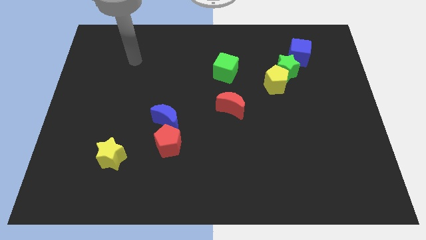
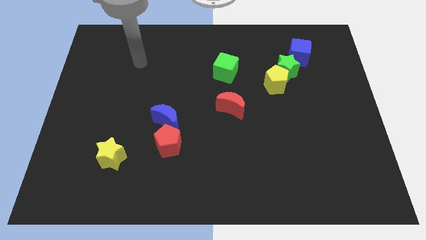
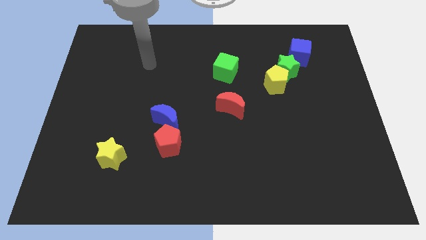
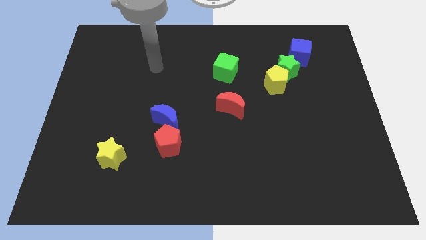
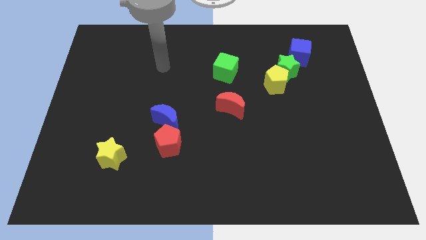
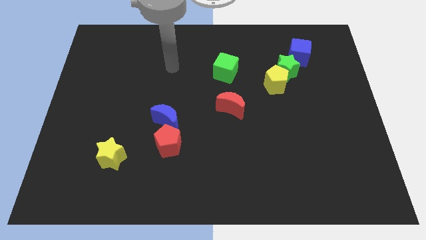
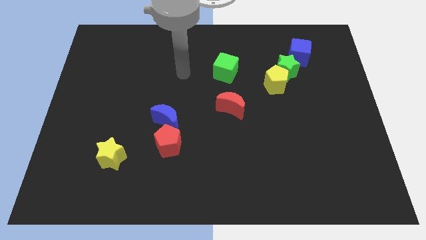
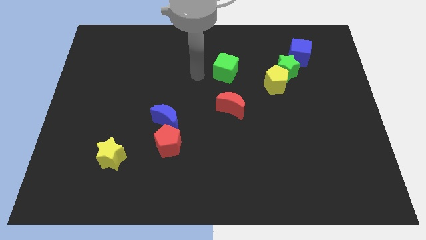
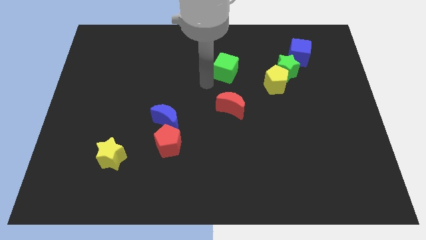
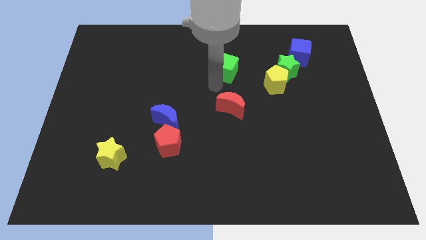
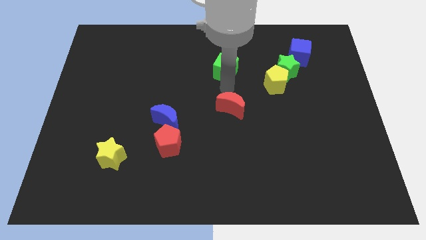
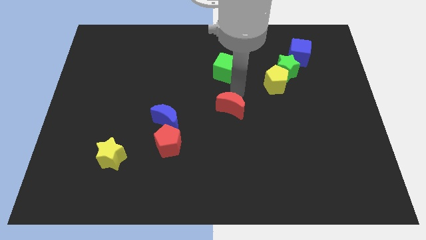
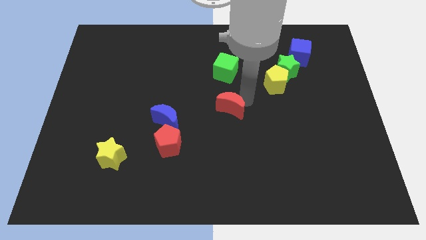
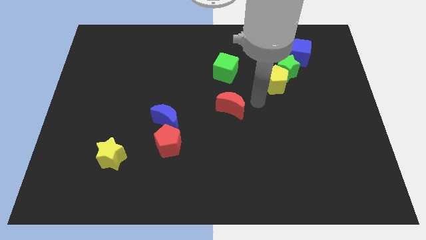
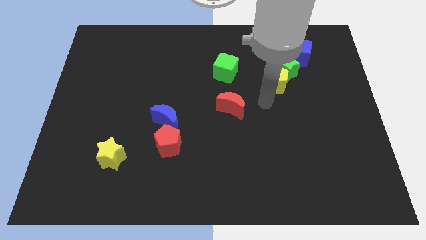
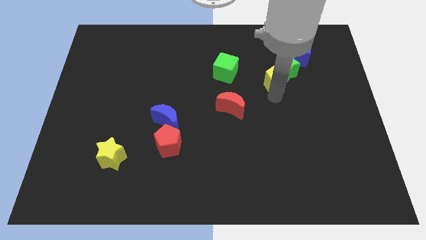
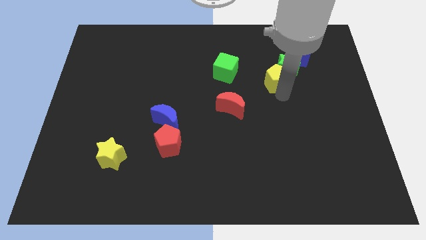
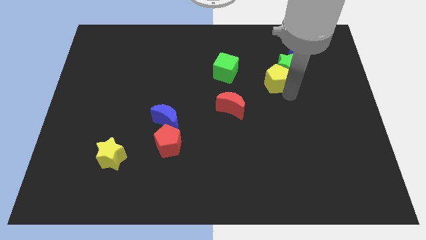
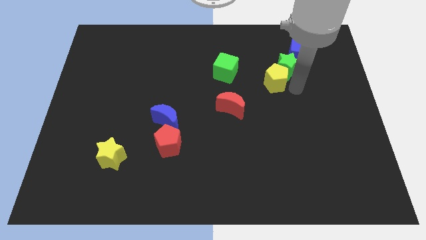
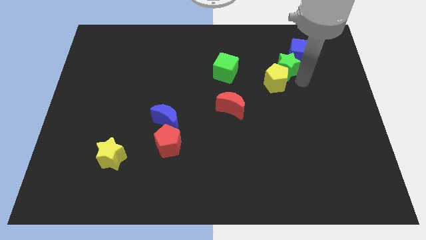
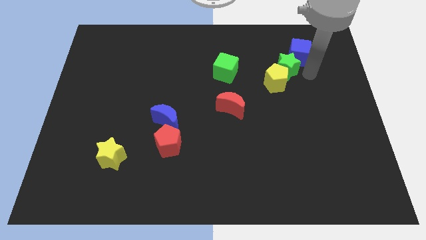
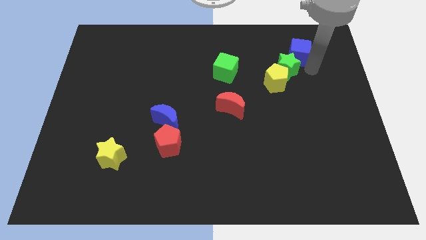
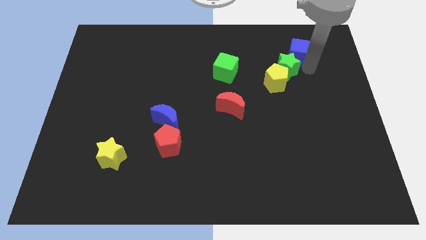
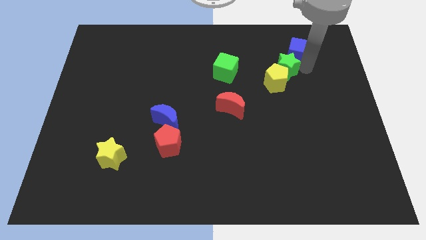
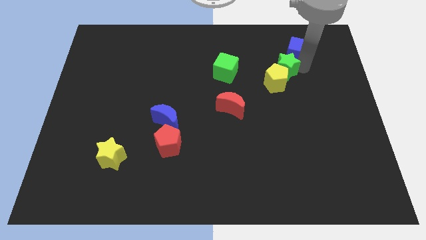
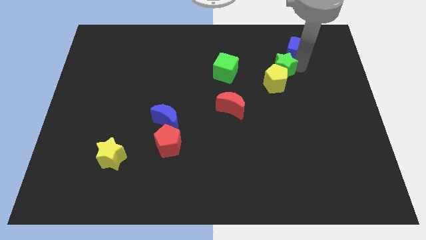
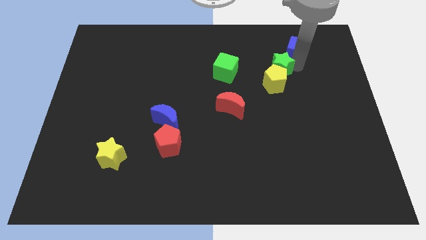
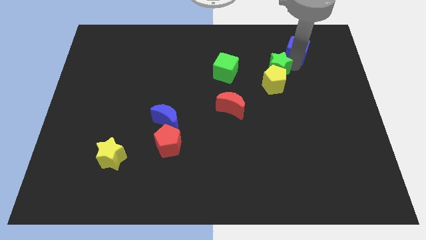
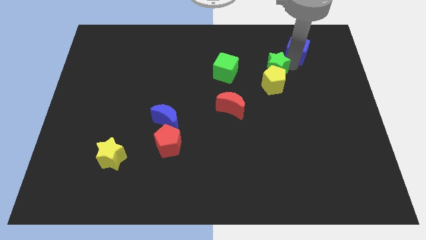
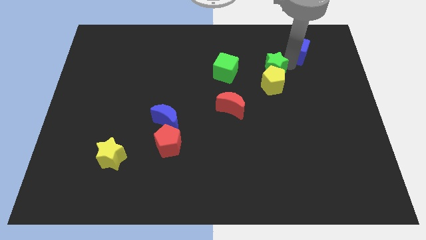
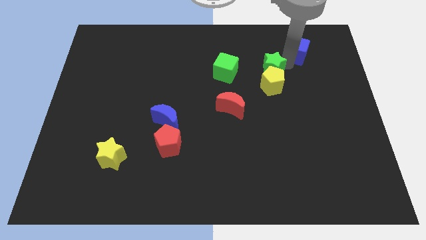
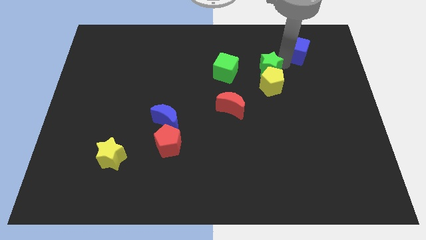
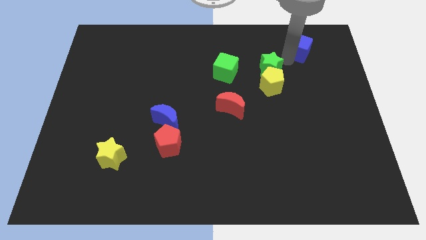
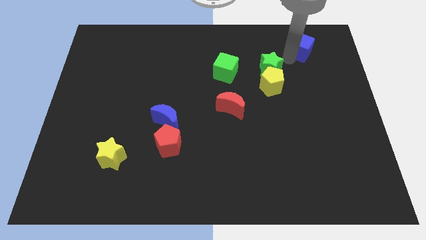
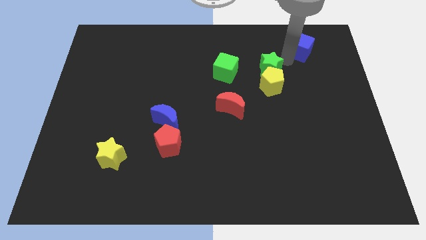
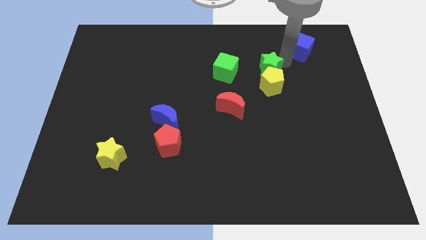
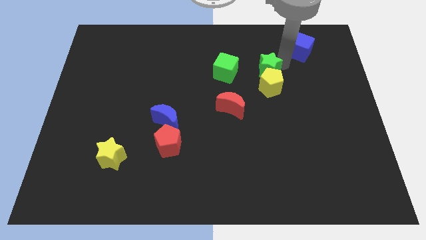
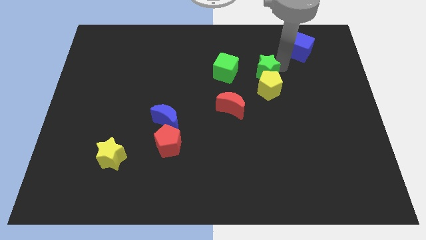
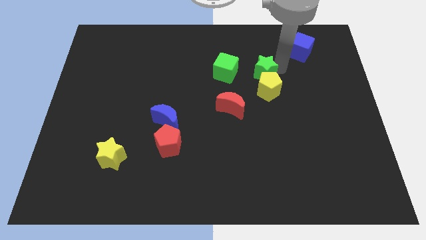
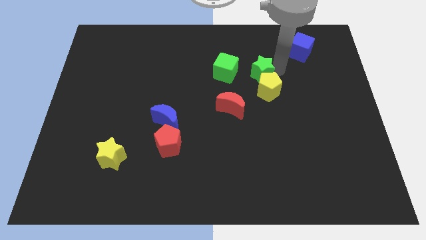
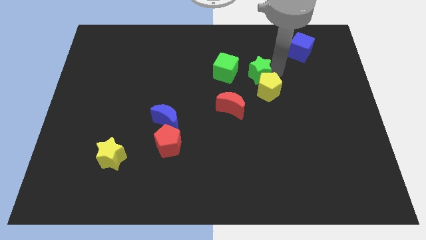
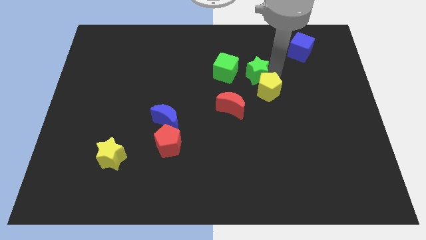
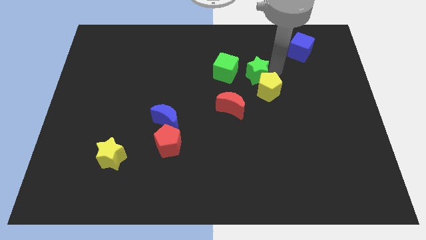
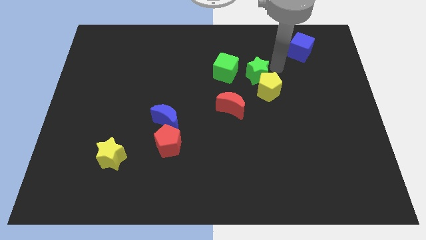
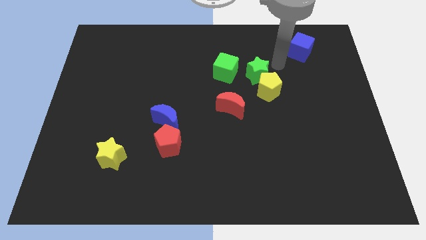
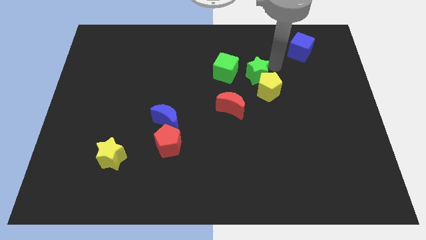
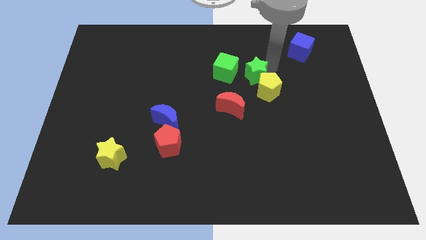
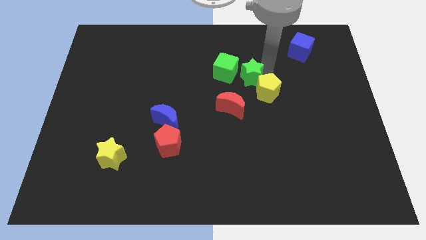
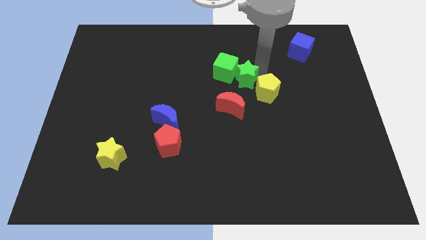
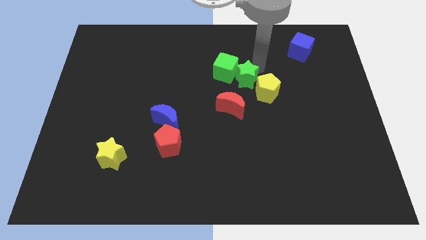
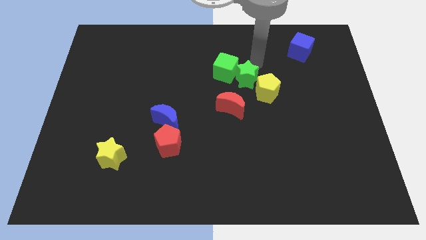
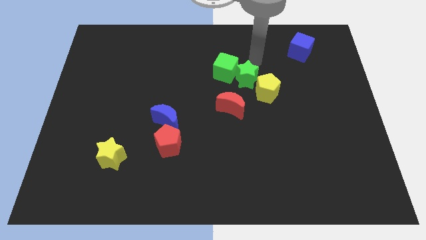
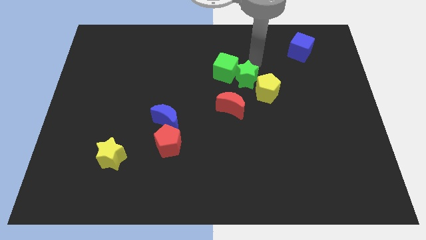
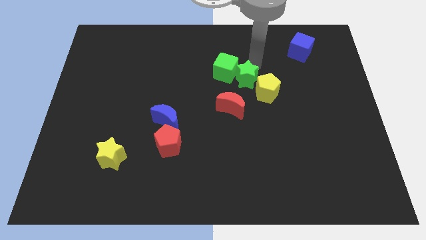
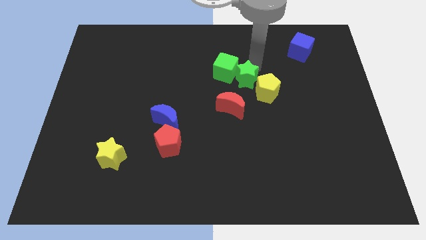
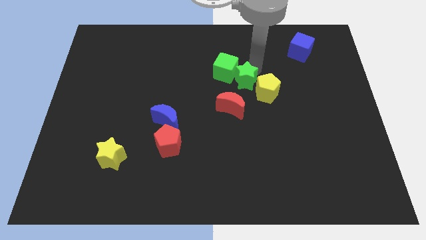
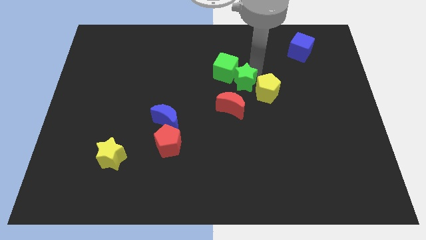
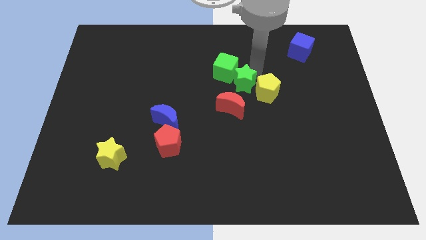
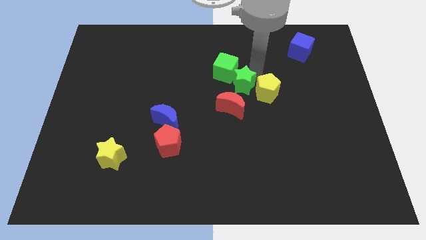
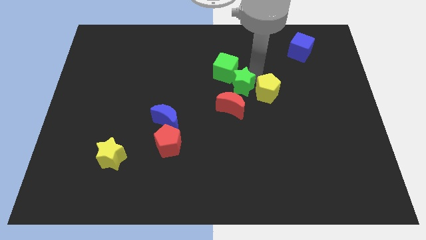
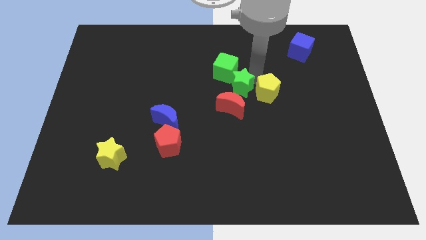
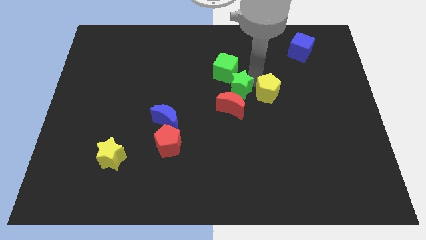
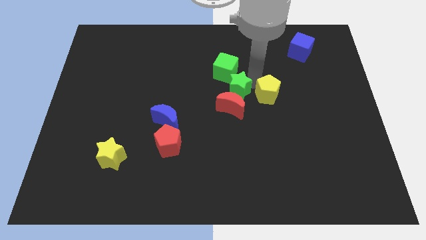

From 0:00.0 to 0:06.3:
move the green star next to the red moon
